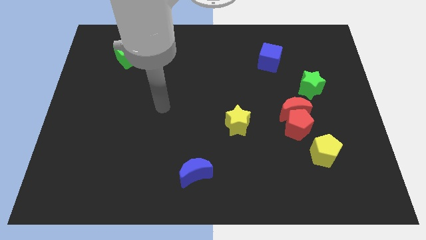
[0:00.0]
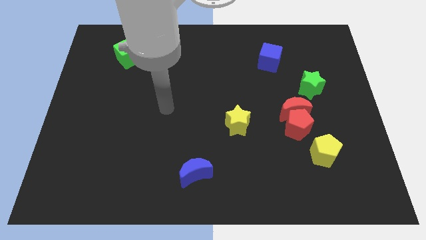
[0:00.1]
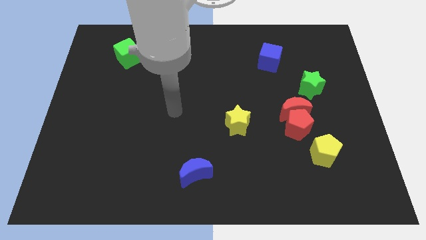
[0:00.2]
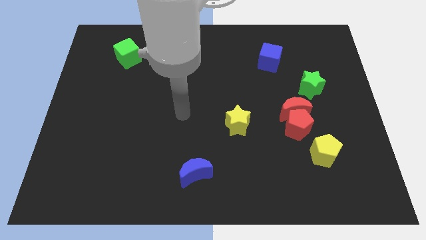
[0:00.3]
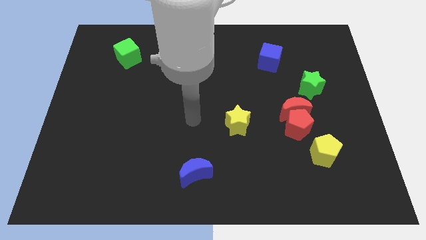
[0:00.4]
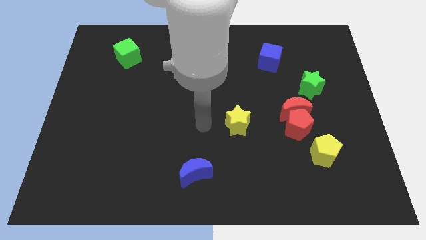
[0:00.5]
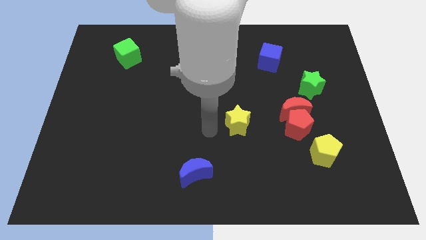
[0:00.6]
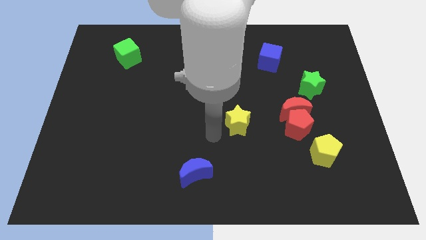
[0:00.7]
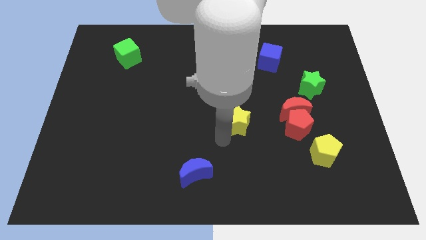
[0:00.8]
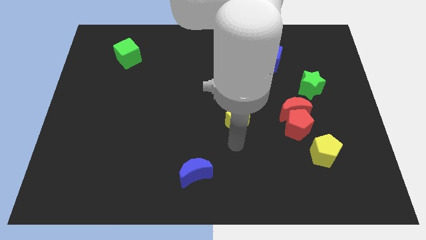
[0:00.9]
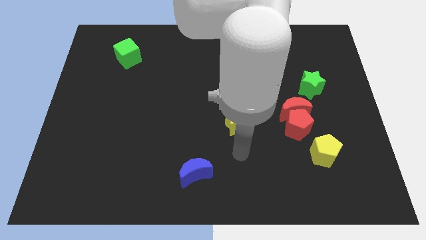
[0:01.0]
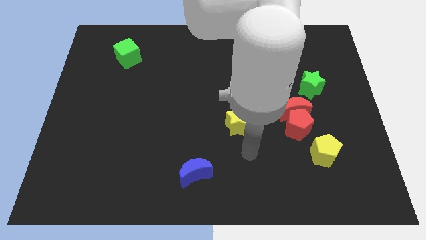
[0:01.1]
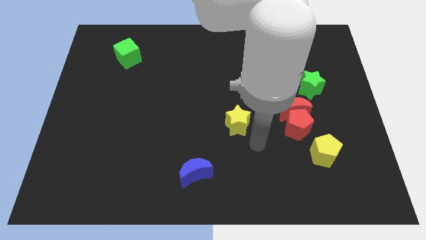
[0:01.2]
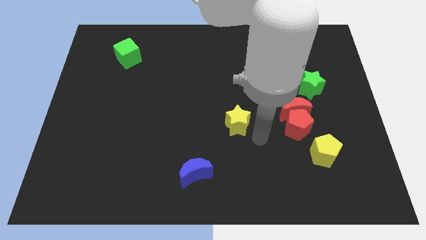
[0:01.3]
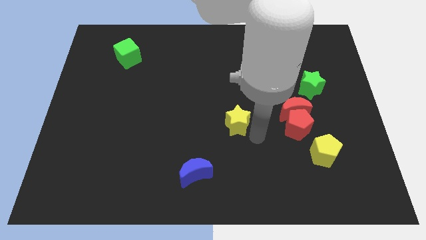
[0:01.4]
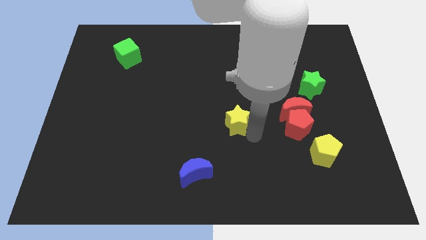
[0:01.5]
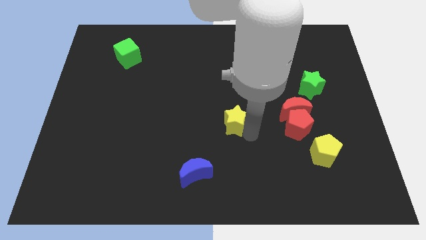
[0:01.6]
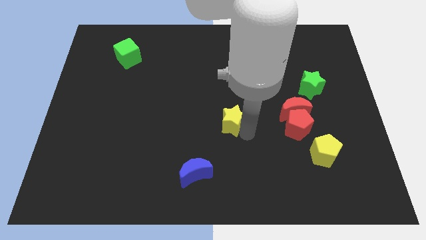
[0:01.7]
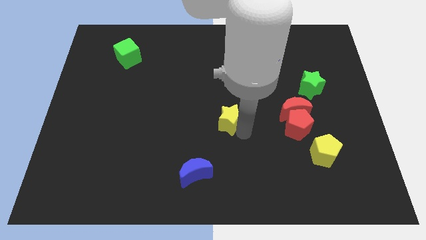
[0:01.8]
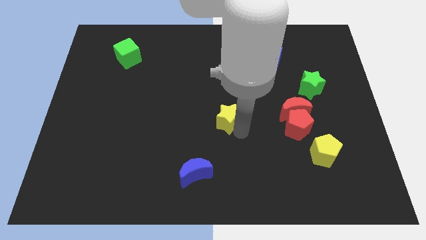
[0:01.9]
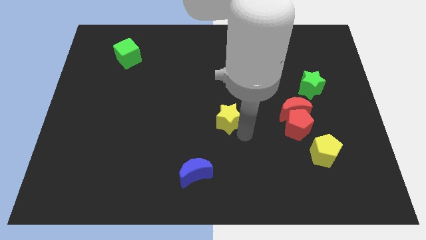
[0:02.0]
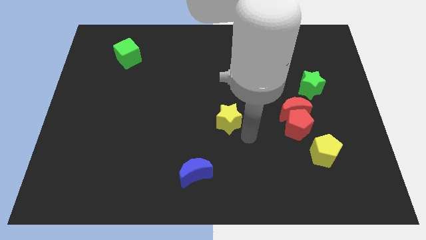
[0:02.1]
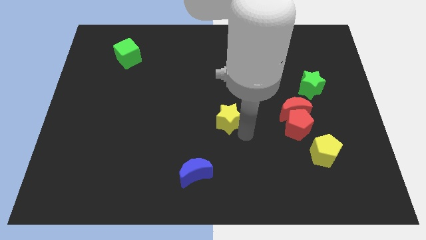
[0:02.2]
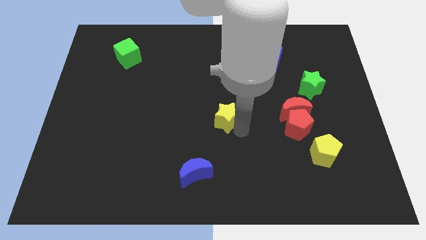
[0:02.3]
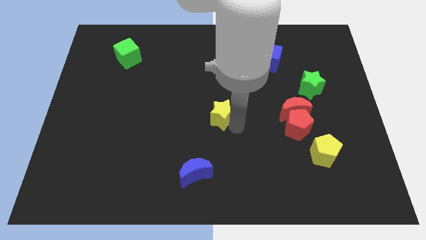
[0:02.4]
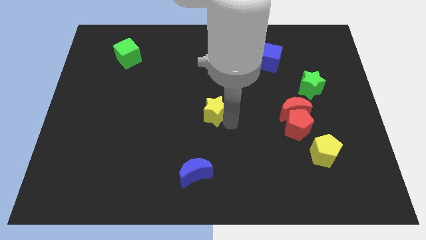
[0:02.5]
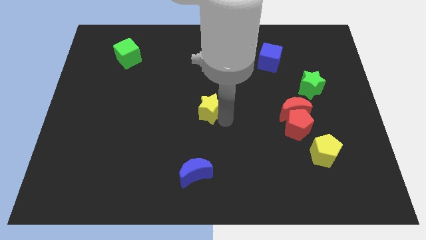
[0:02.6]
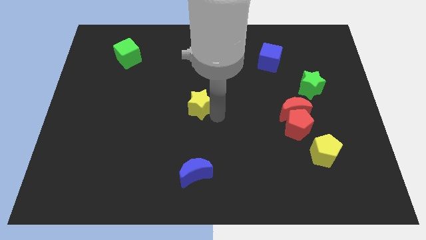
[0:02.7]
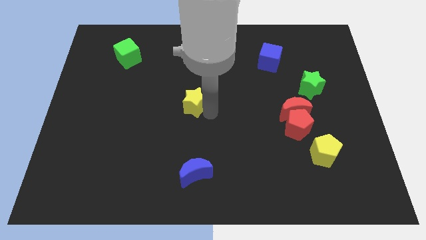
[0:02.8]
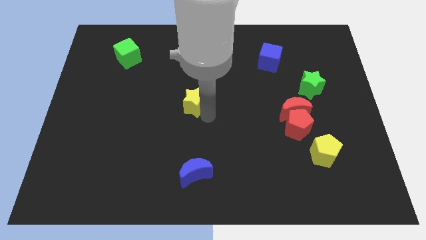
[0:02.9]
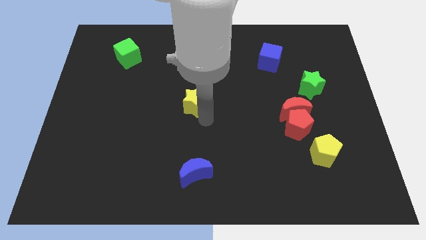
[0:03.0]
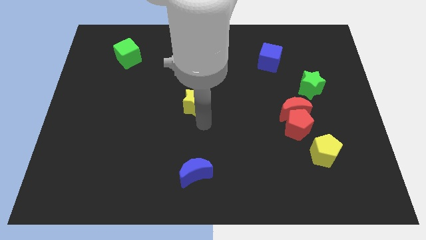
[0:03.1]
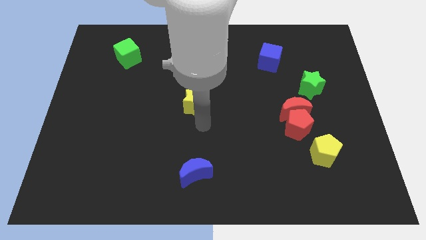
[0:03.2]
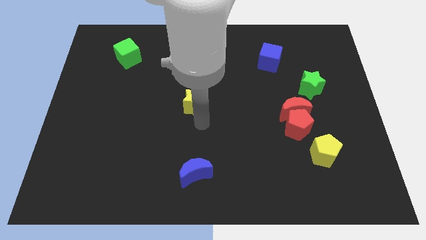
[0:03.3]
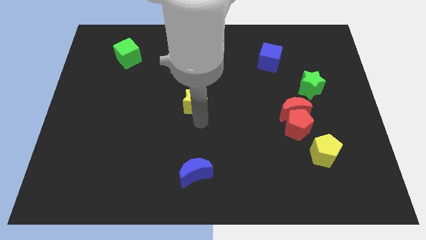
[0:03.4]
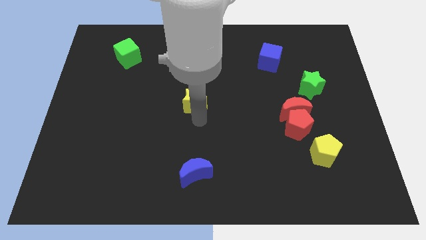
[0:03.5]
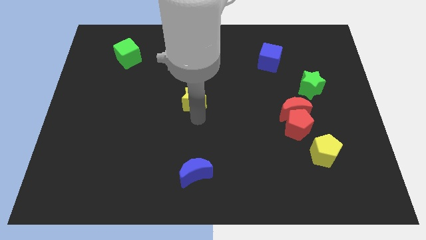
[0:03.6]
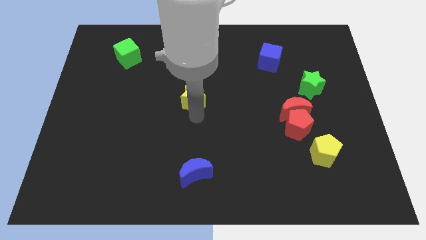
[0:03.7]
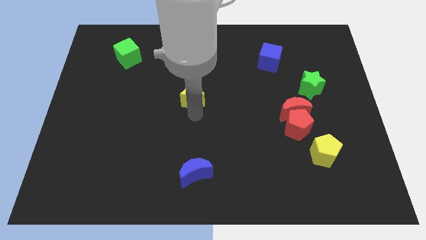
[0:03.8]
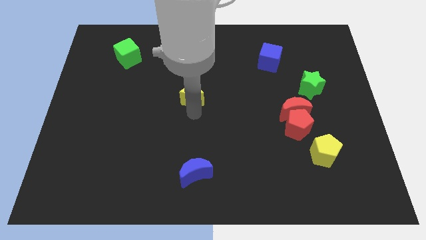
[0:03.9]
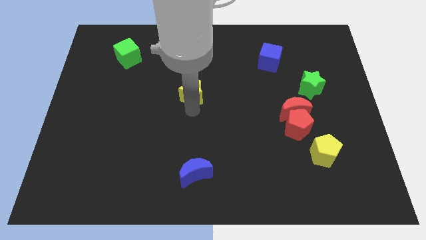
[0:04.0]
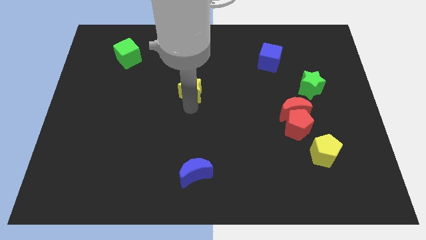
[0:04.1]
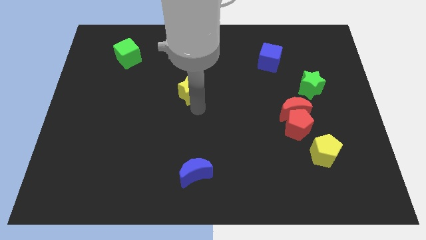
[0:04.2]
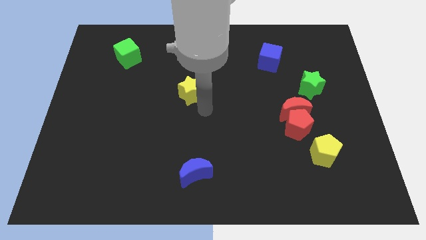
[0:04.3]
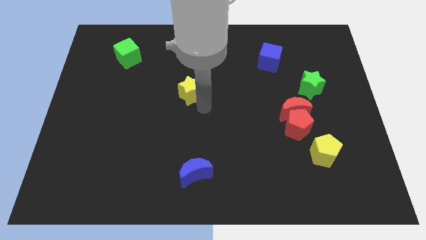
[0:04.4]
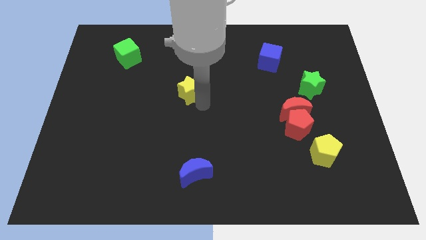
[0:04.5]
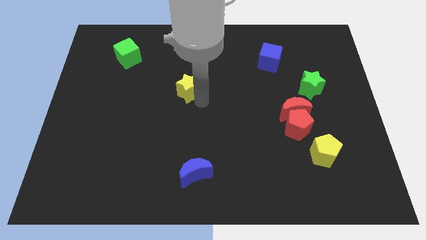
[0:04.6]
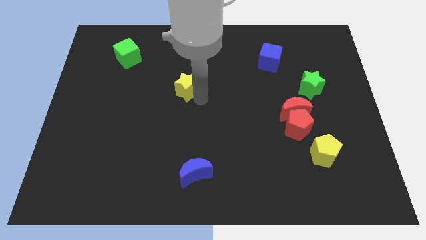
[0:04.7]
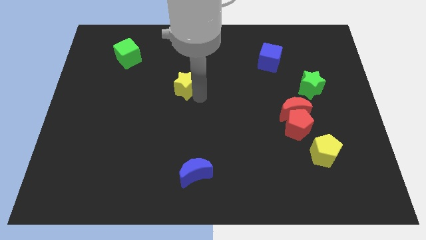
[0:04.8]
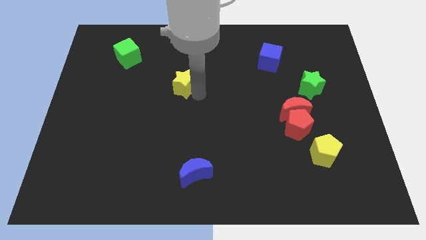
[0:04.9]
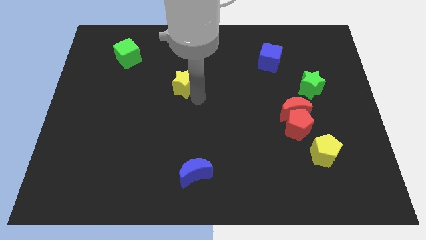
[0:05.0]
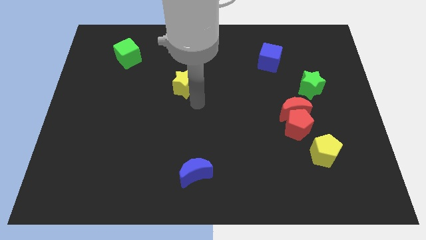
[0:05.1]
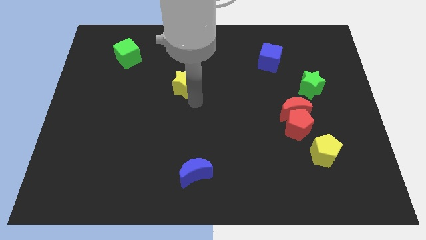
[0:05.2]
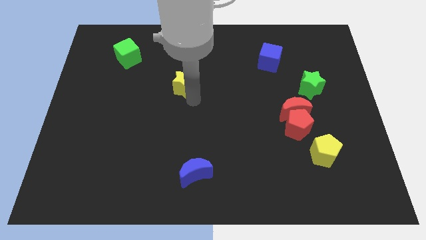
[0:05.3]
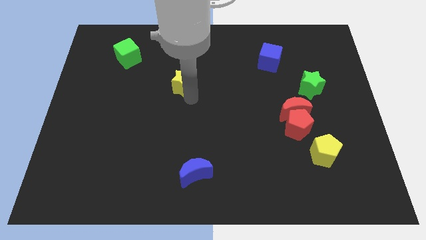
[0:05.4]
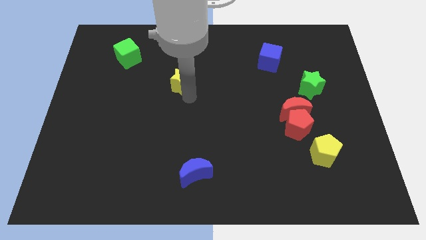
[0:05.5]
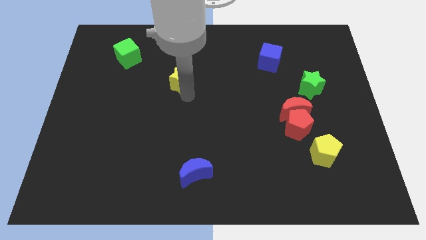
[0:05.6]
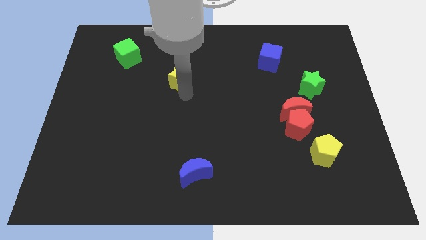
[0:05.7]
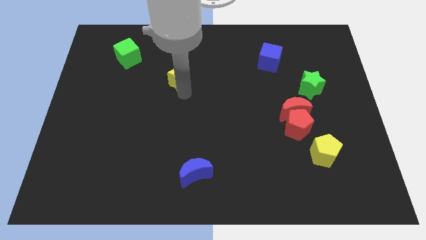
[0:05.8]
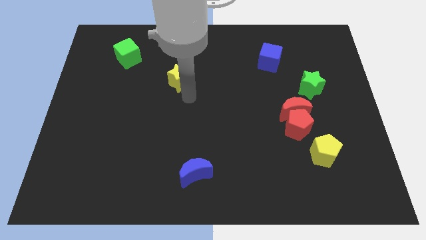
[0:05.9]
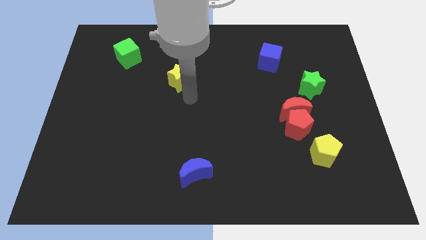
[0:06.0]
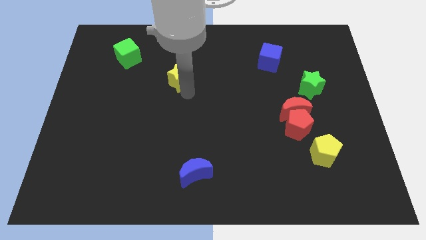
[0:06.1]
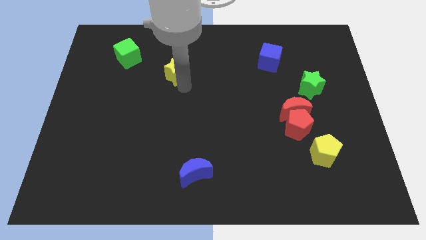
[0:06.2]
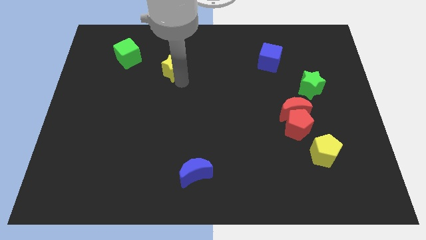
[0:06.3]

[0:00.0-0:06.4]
move the yellow star to the right of the green cube

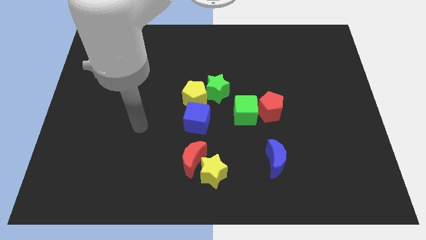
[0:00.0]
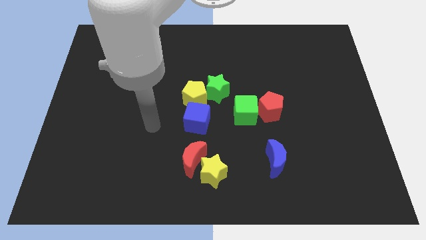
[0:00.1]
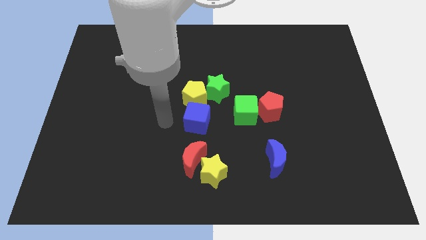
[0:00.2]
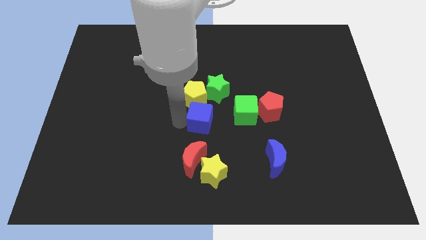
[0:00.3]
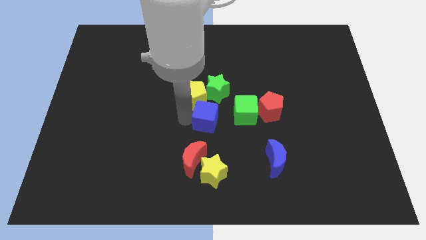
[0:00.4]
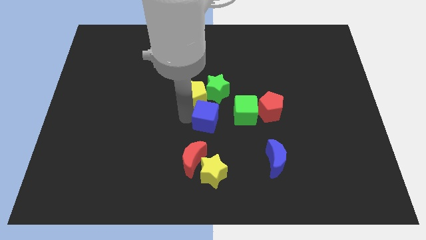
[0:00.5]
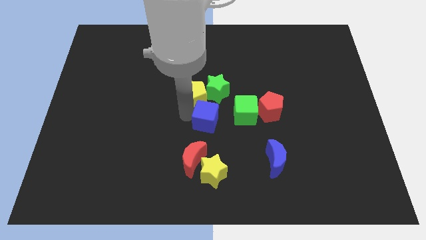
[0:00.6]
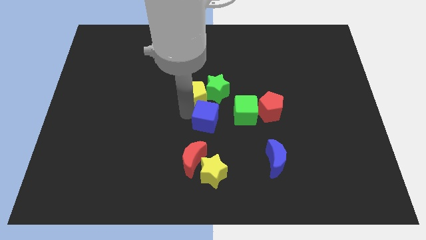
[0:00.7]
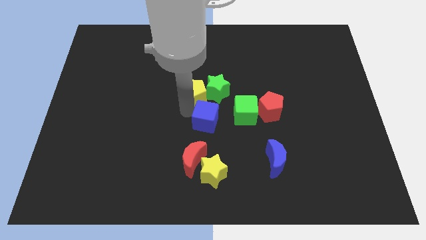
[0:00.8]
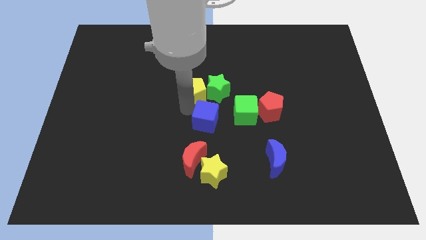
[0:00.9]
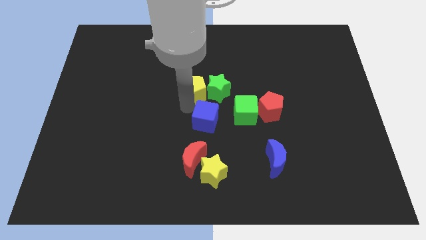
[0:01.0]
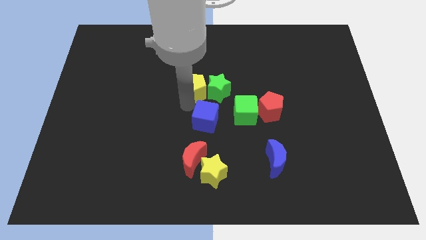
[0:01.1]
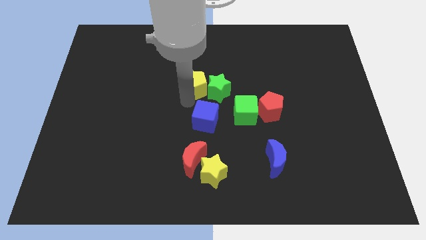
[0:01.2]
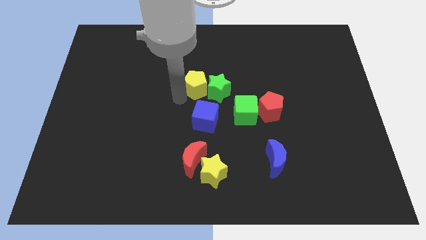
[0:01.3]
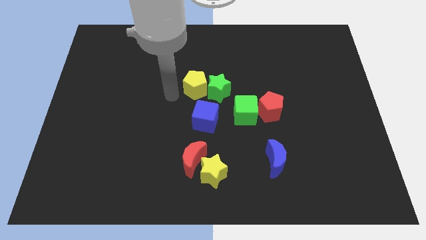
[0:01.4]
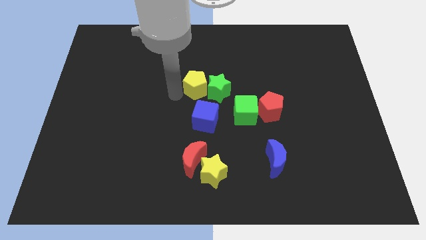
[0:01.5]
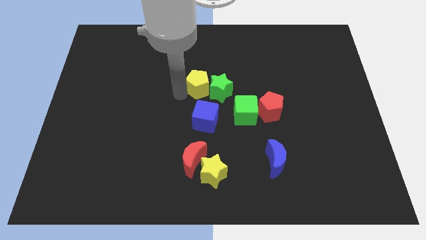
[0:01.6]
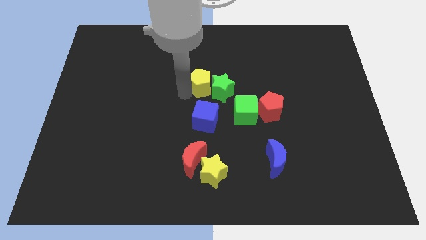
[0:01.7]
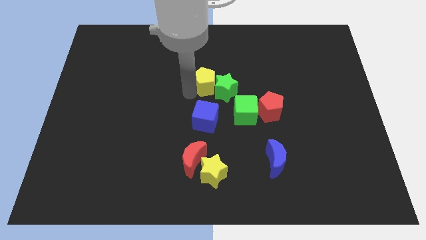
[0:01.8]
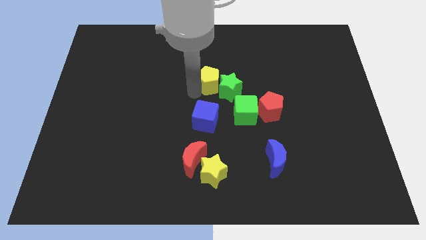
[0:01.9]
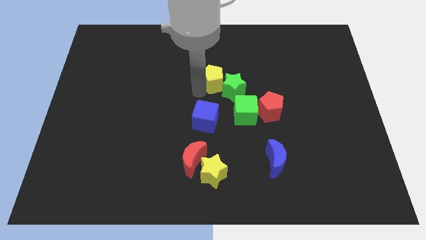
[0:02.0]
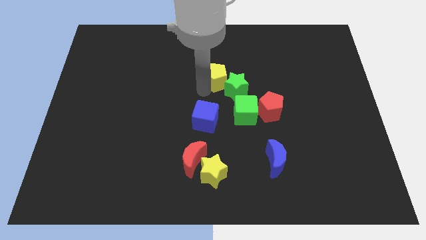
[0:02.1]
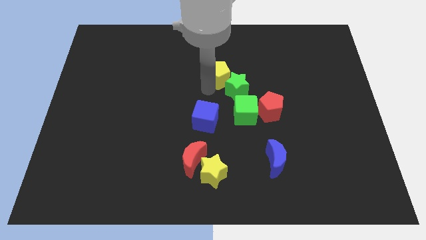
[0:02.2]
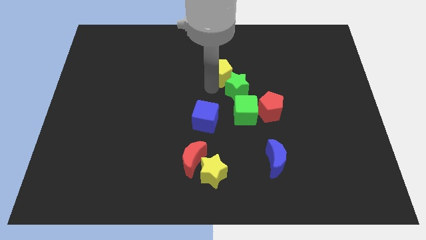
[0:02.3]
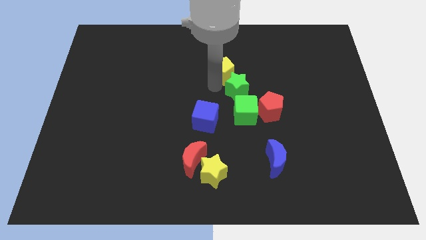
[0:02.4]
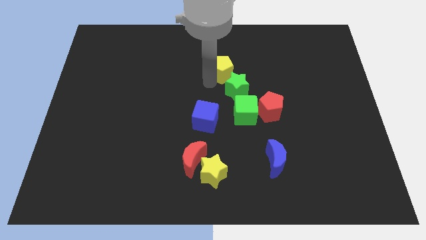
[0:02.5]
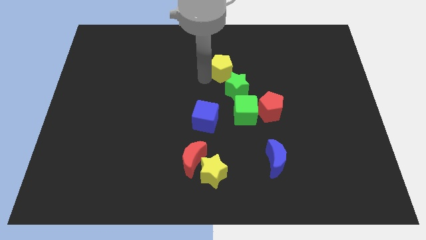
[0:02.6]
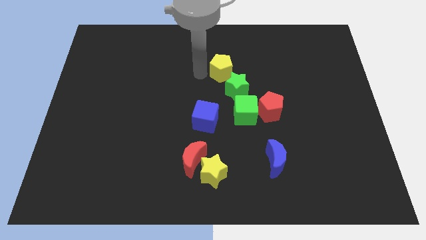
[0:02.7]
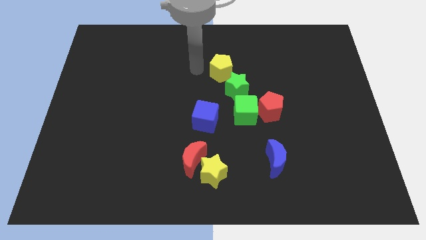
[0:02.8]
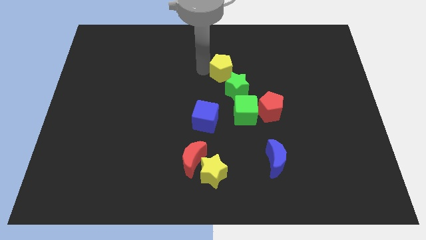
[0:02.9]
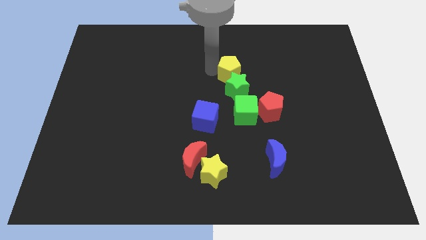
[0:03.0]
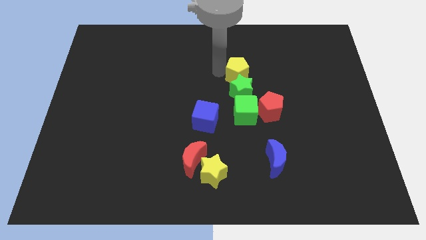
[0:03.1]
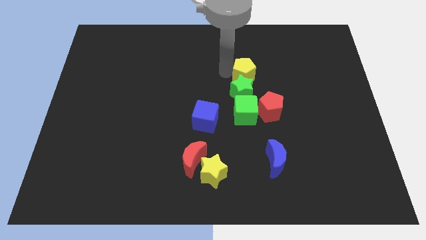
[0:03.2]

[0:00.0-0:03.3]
put the yellow pentagon to the top right of the green star
